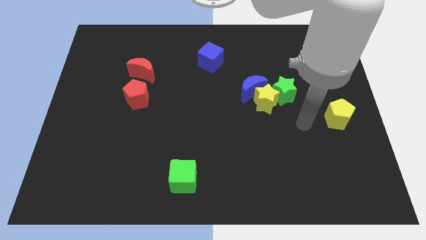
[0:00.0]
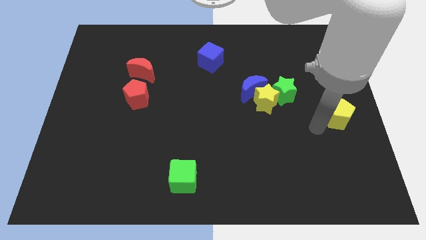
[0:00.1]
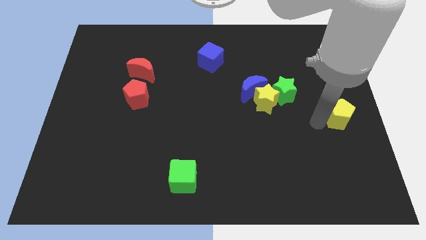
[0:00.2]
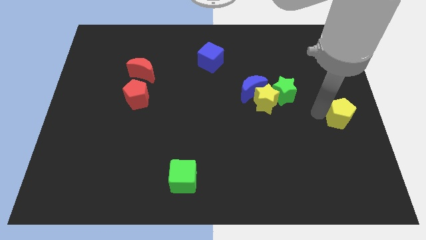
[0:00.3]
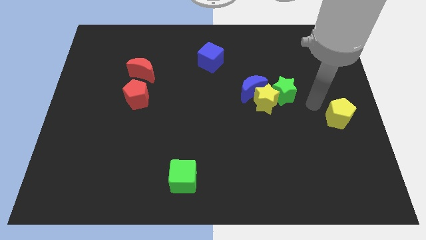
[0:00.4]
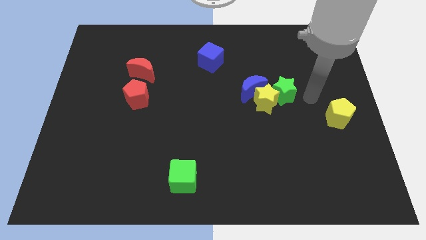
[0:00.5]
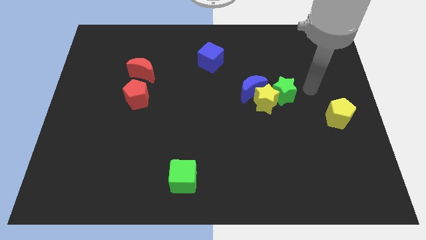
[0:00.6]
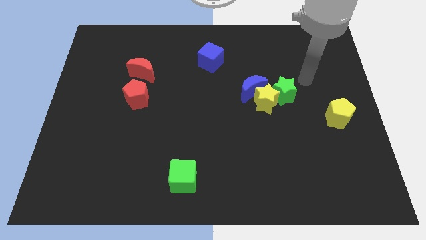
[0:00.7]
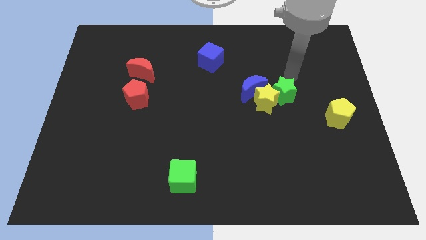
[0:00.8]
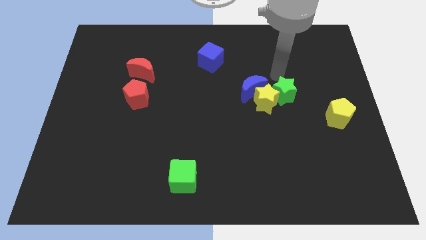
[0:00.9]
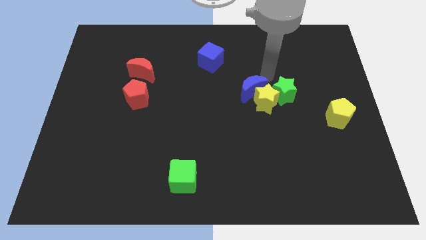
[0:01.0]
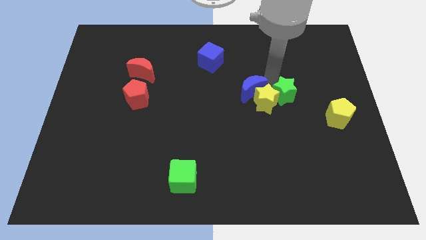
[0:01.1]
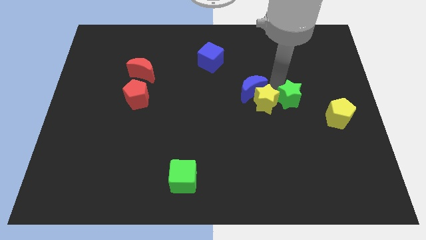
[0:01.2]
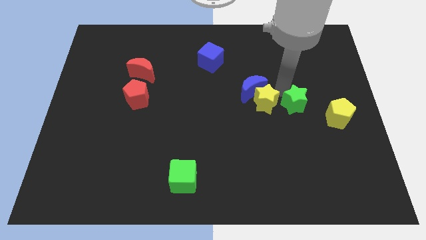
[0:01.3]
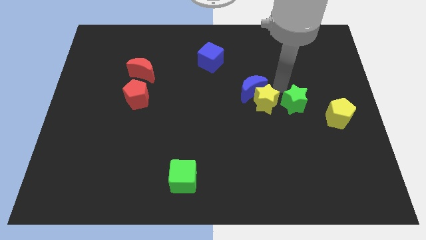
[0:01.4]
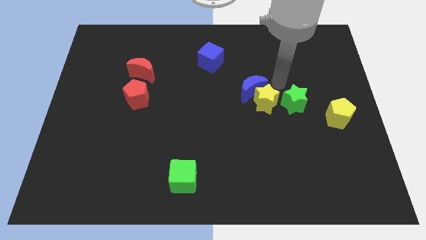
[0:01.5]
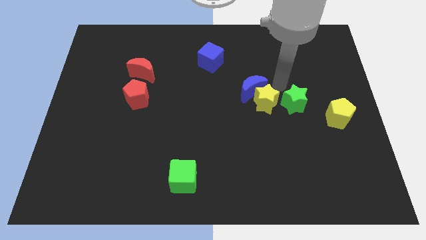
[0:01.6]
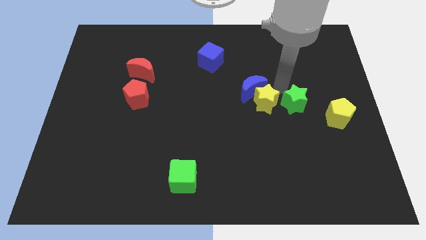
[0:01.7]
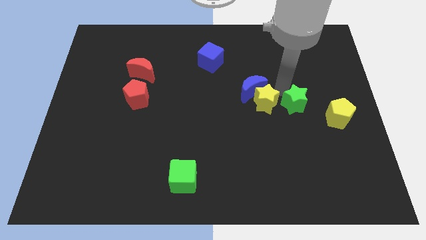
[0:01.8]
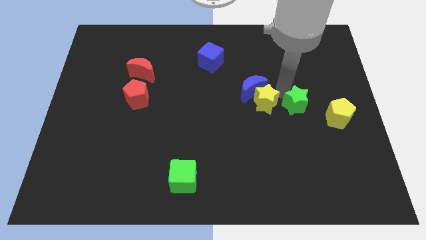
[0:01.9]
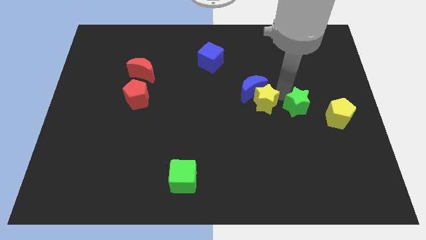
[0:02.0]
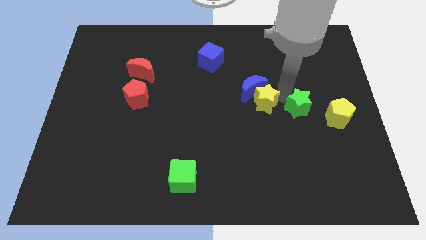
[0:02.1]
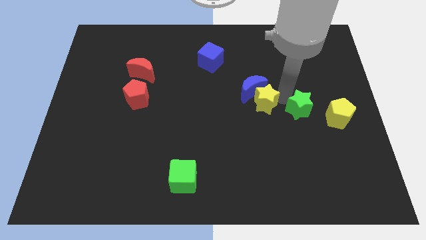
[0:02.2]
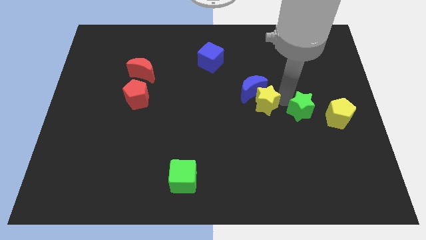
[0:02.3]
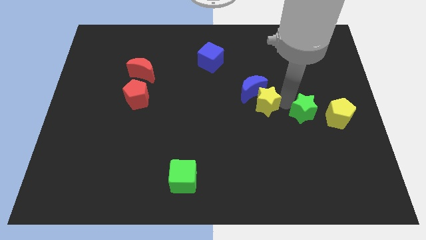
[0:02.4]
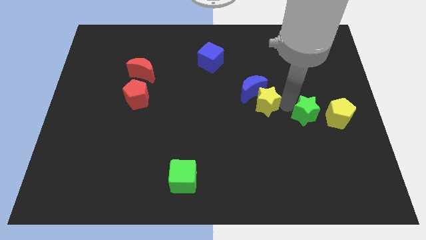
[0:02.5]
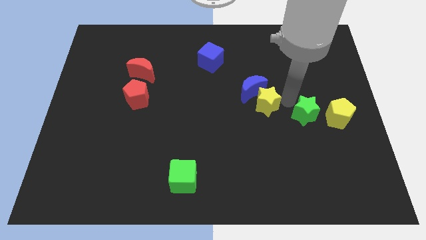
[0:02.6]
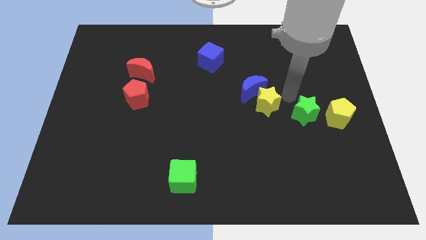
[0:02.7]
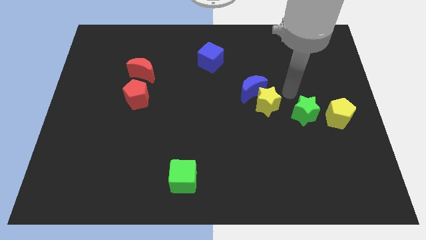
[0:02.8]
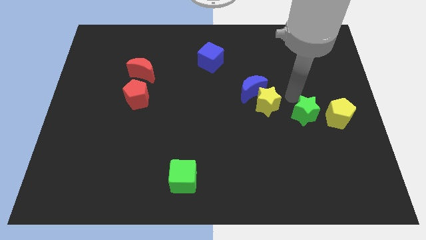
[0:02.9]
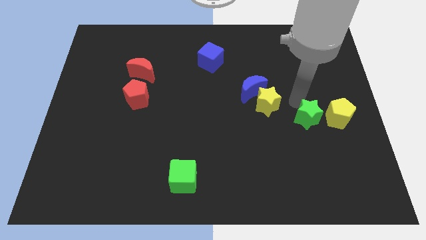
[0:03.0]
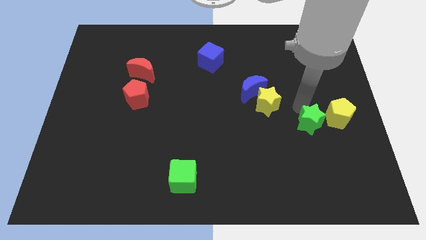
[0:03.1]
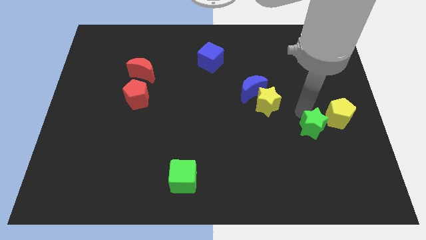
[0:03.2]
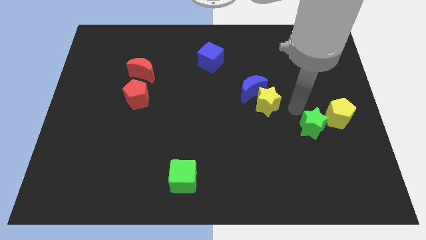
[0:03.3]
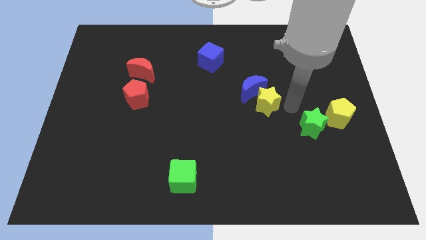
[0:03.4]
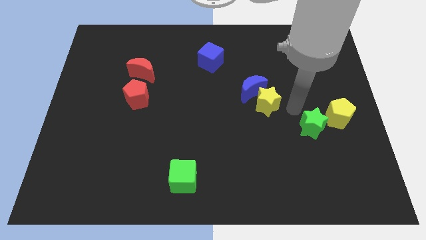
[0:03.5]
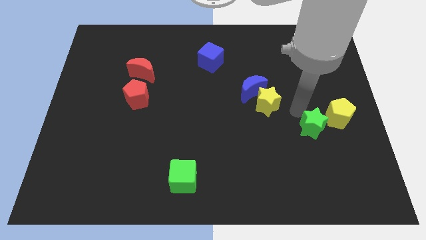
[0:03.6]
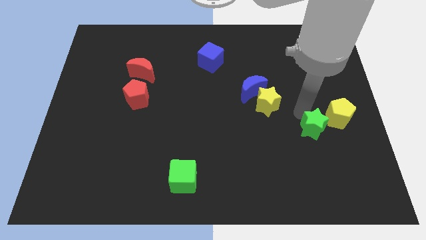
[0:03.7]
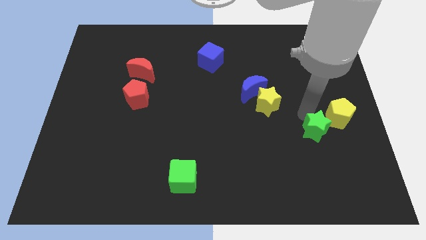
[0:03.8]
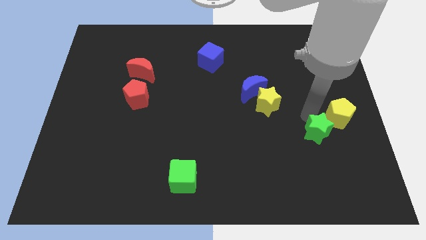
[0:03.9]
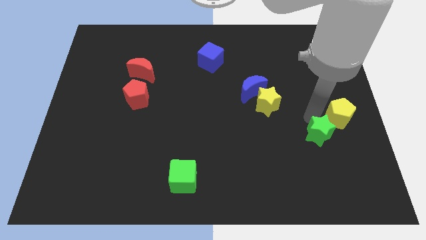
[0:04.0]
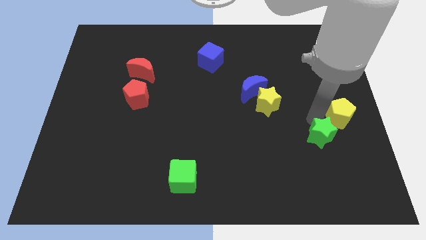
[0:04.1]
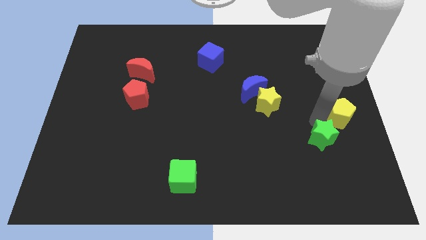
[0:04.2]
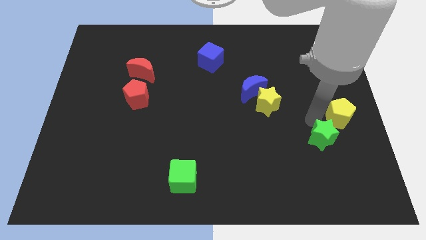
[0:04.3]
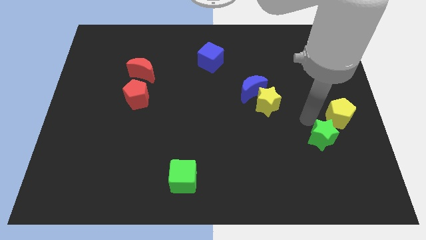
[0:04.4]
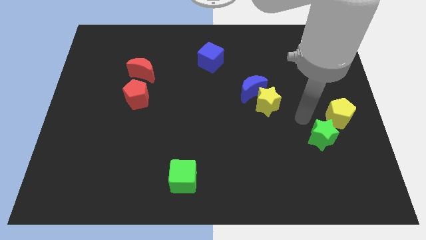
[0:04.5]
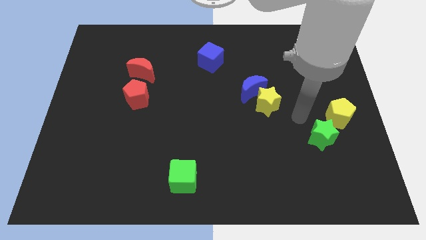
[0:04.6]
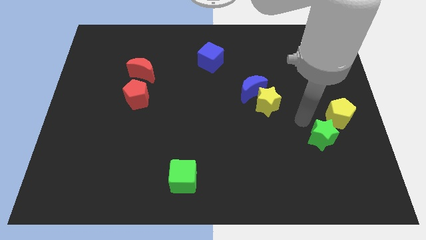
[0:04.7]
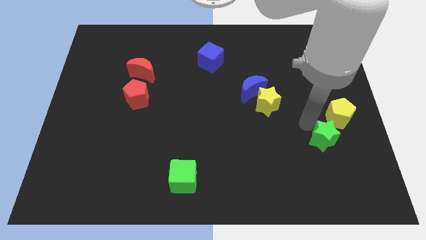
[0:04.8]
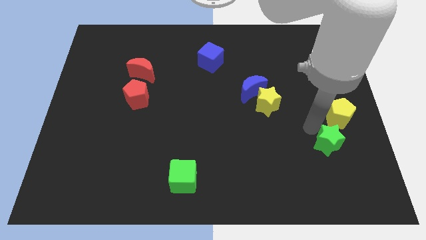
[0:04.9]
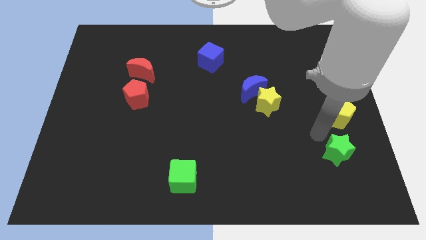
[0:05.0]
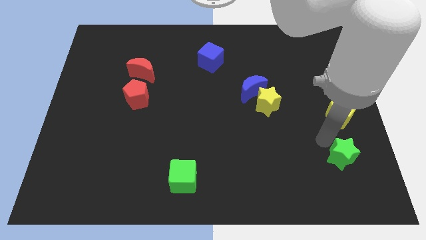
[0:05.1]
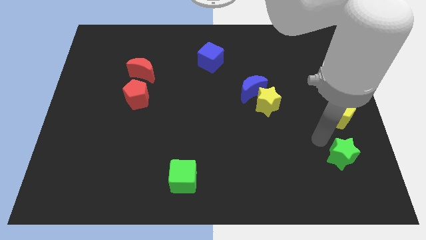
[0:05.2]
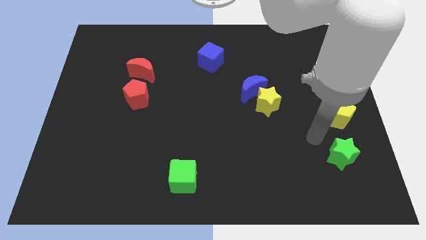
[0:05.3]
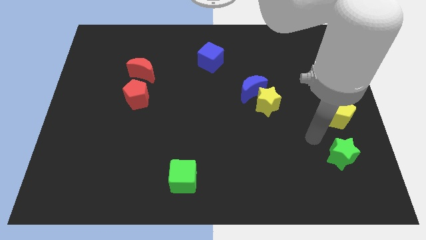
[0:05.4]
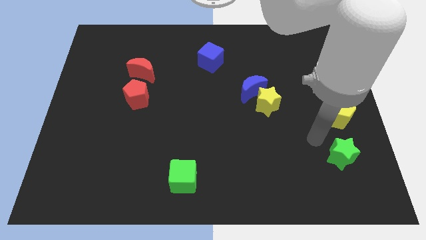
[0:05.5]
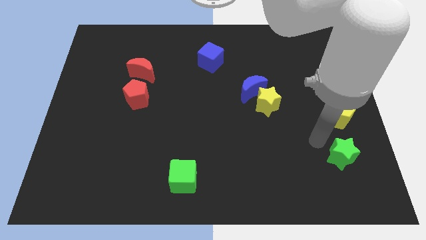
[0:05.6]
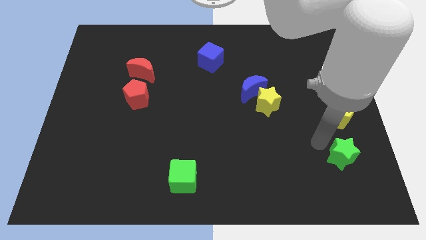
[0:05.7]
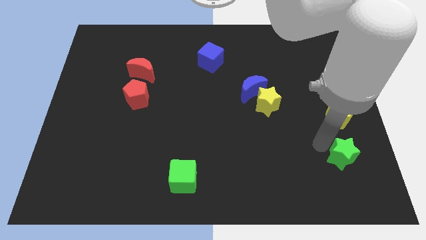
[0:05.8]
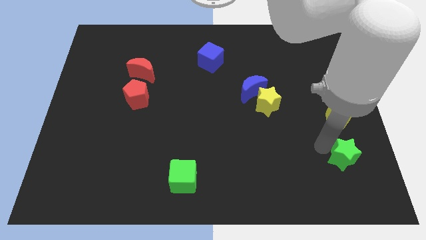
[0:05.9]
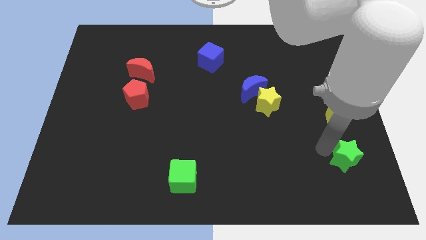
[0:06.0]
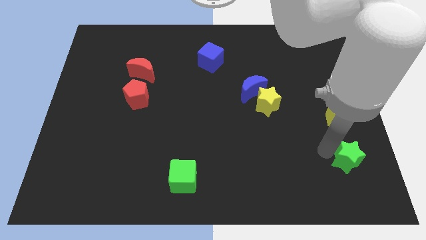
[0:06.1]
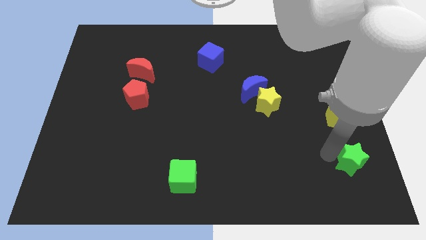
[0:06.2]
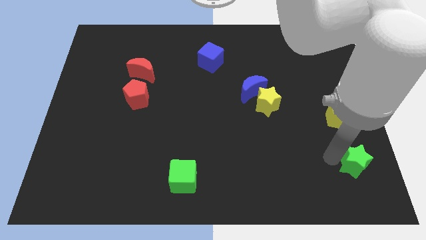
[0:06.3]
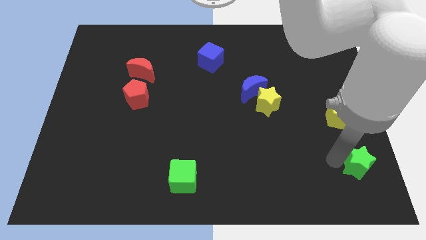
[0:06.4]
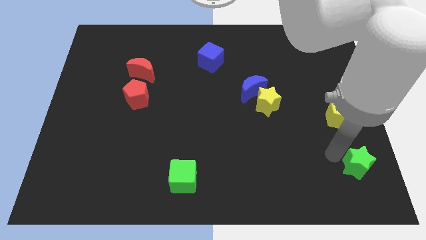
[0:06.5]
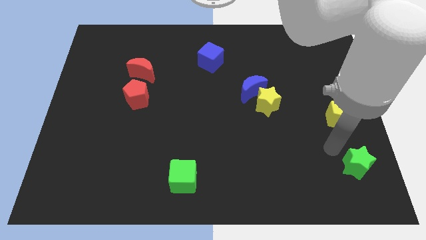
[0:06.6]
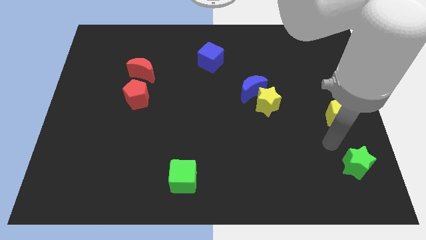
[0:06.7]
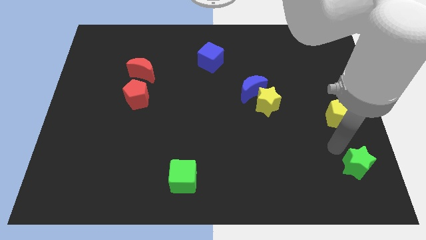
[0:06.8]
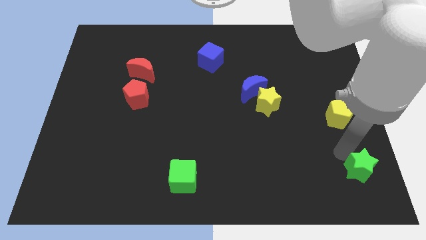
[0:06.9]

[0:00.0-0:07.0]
move the green star to the bottom right of the board

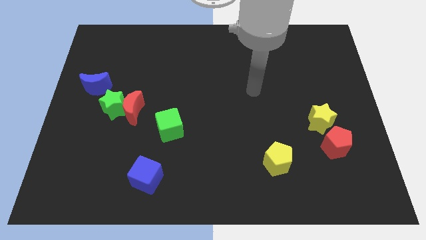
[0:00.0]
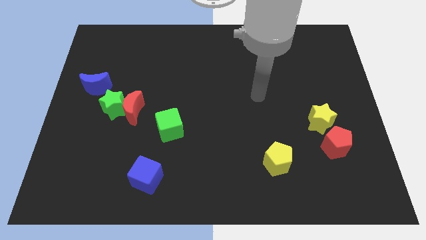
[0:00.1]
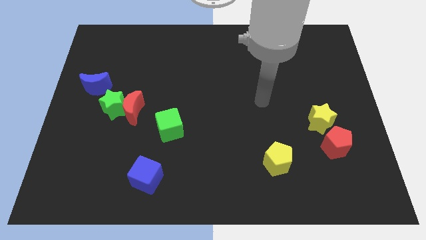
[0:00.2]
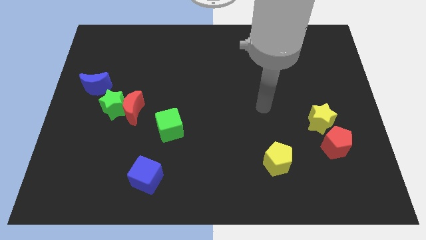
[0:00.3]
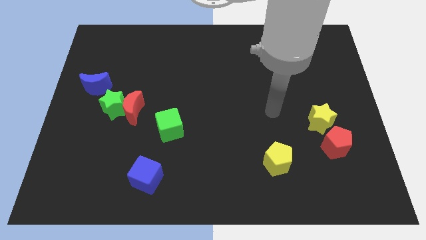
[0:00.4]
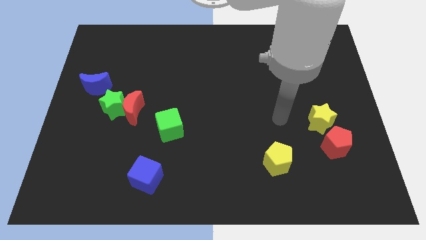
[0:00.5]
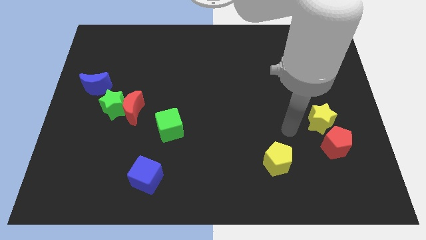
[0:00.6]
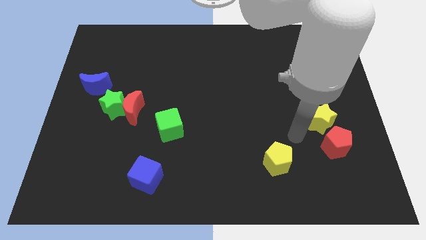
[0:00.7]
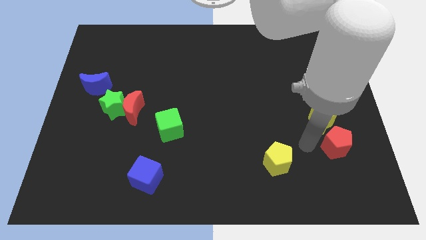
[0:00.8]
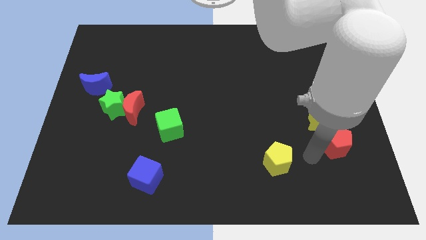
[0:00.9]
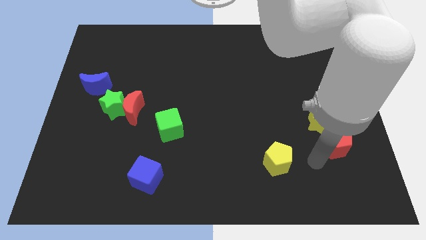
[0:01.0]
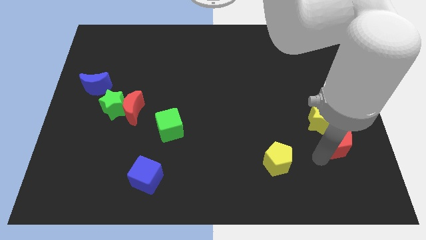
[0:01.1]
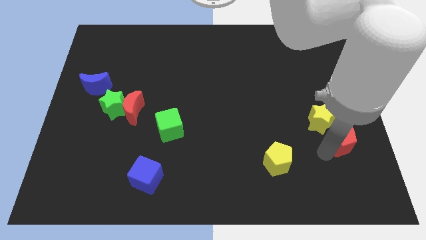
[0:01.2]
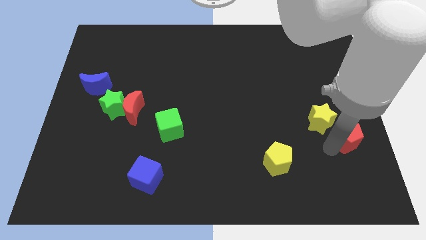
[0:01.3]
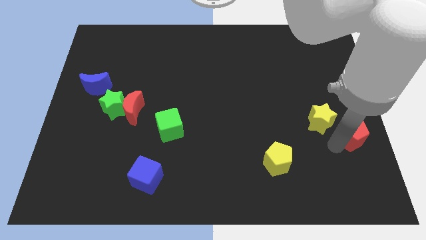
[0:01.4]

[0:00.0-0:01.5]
move the red pentagon to the right side of the board
